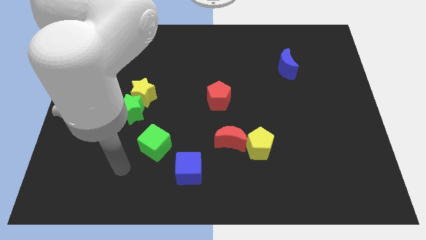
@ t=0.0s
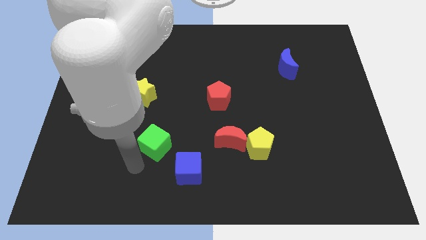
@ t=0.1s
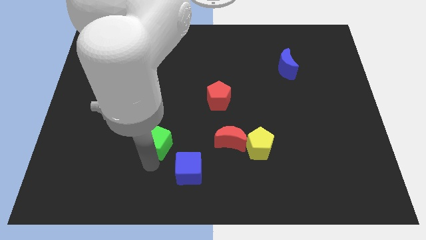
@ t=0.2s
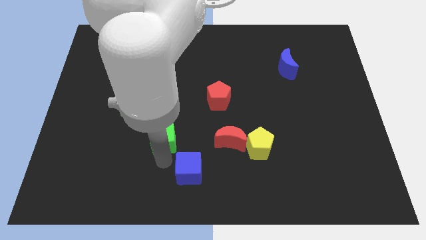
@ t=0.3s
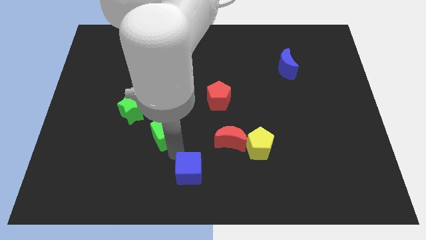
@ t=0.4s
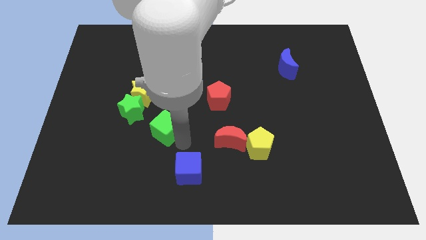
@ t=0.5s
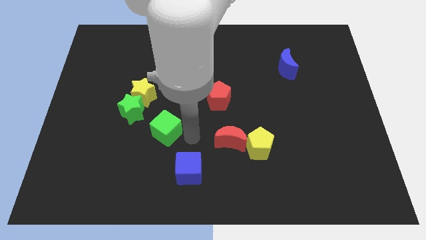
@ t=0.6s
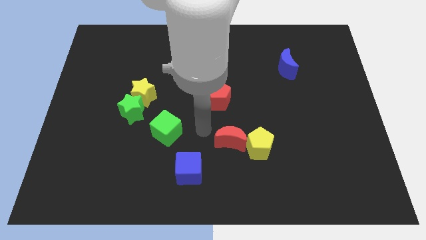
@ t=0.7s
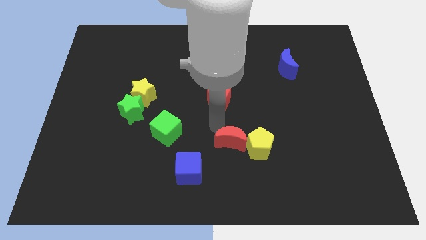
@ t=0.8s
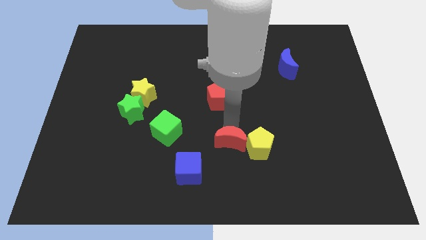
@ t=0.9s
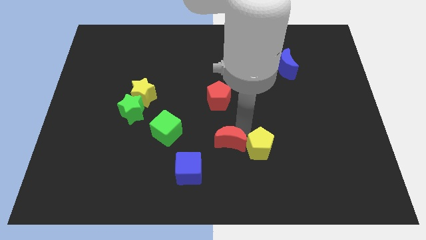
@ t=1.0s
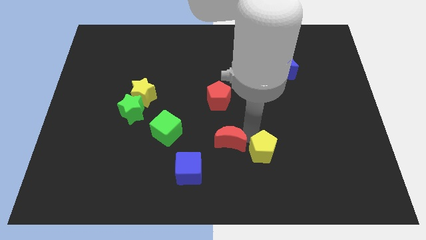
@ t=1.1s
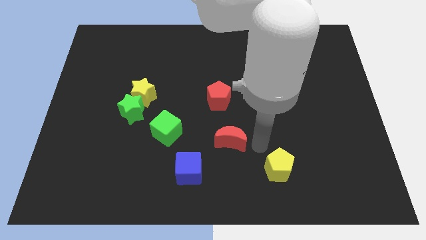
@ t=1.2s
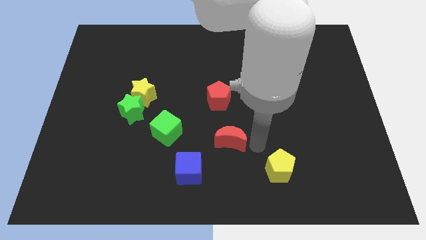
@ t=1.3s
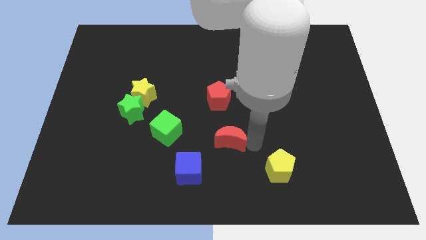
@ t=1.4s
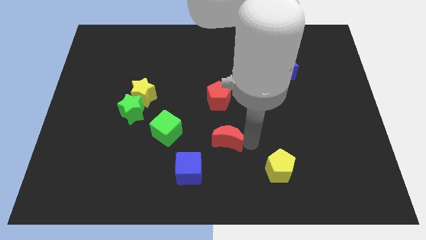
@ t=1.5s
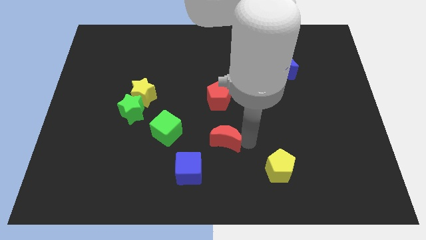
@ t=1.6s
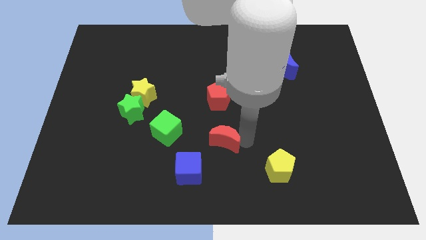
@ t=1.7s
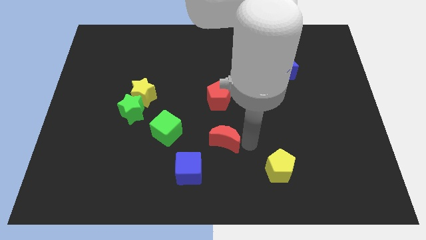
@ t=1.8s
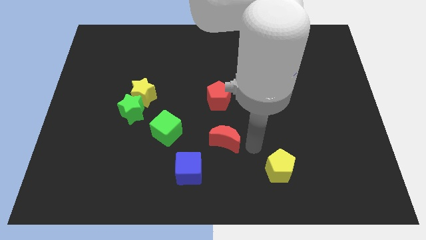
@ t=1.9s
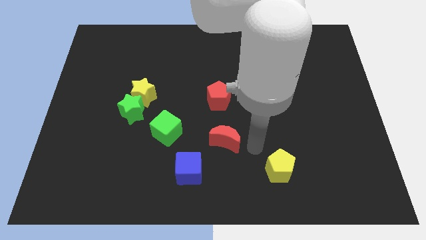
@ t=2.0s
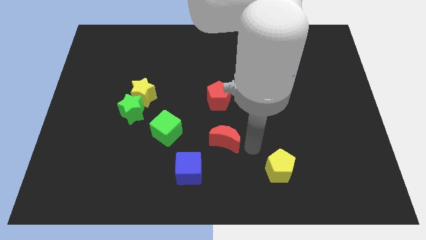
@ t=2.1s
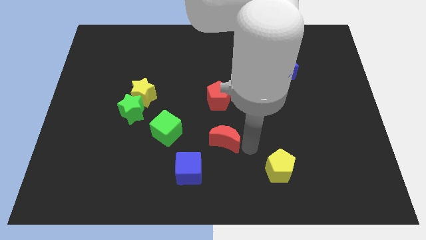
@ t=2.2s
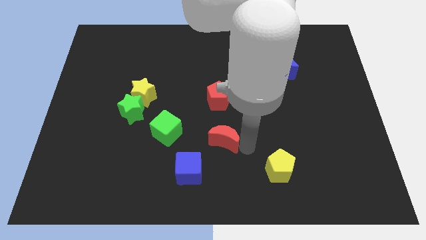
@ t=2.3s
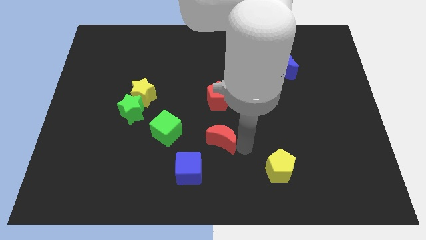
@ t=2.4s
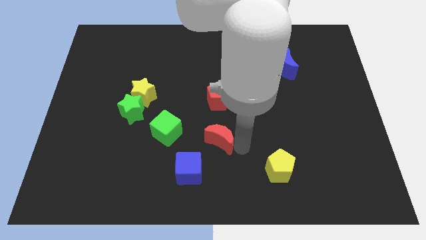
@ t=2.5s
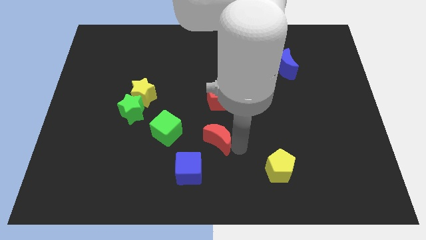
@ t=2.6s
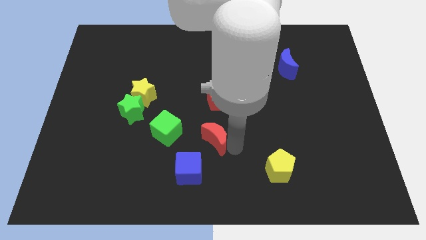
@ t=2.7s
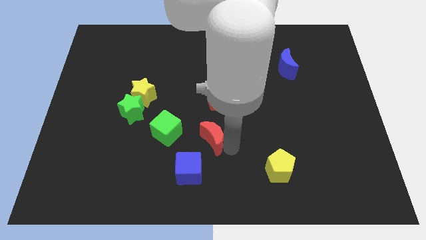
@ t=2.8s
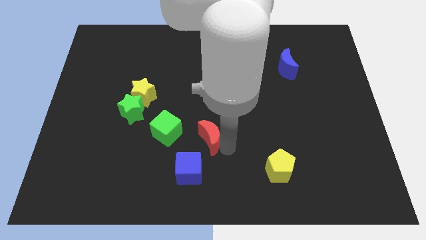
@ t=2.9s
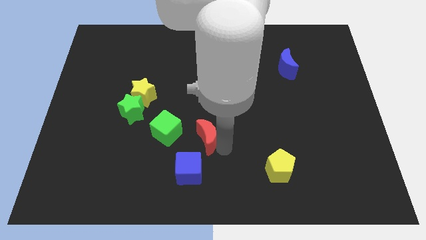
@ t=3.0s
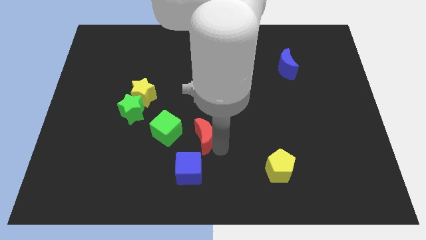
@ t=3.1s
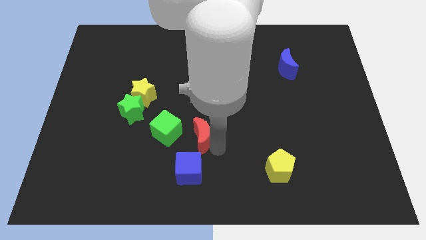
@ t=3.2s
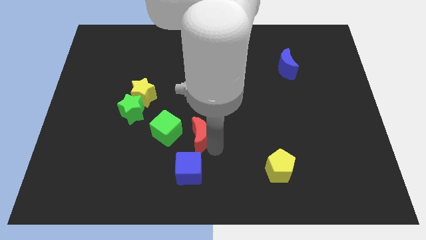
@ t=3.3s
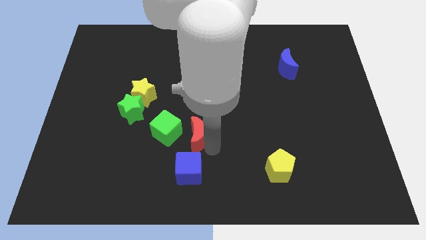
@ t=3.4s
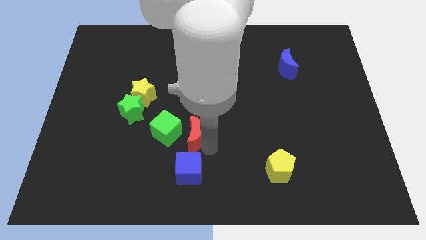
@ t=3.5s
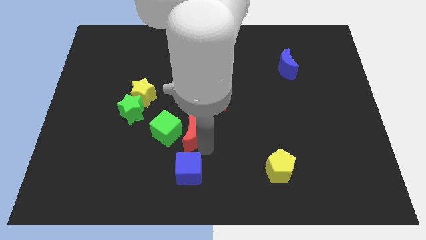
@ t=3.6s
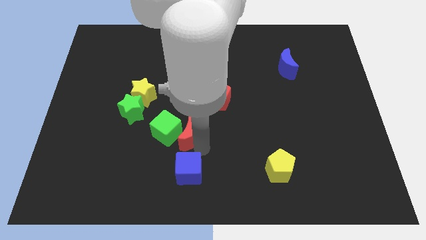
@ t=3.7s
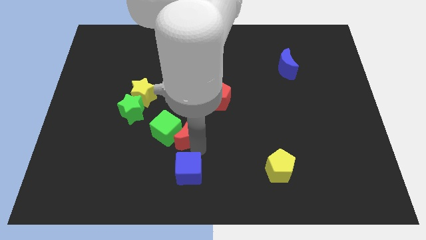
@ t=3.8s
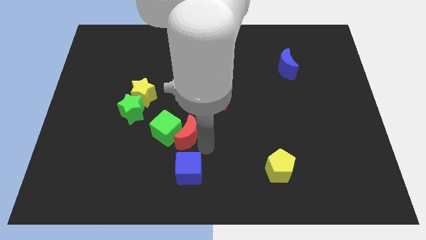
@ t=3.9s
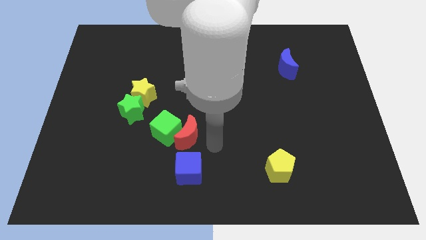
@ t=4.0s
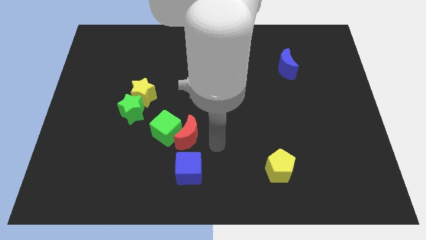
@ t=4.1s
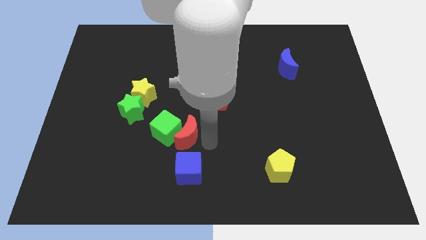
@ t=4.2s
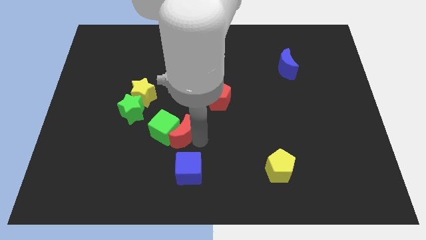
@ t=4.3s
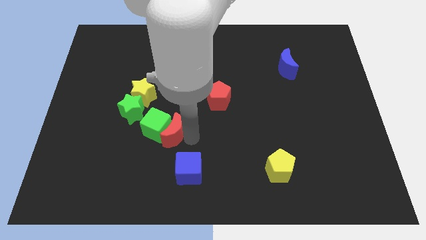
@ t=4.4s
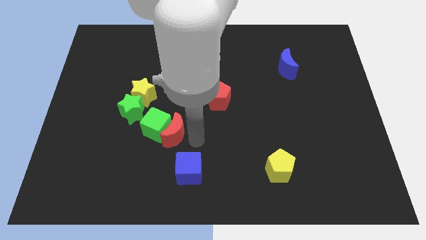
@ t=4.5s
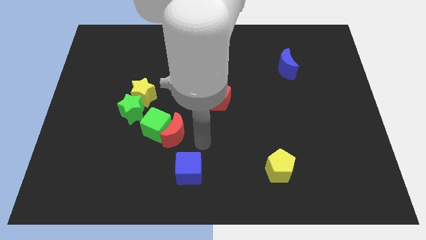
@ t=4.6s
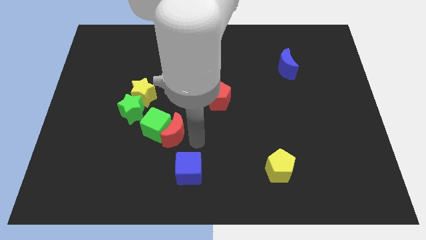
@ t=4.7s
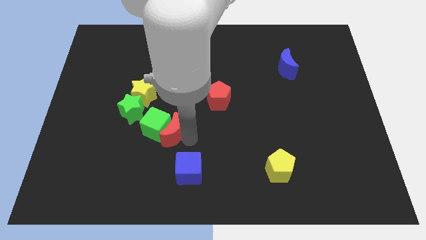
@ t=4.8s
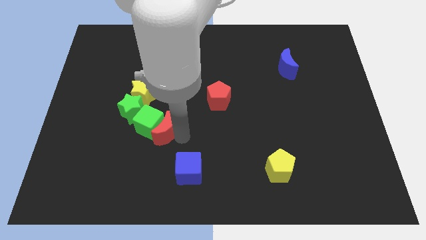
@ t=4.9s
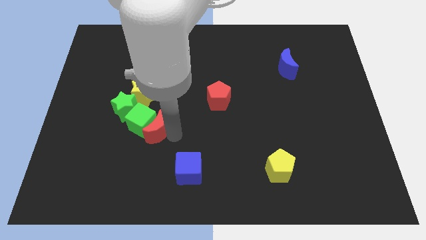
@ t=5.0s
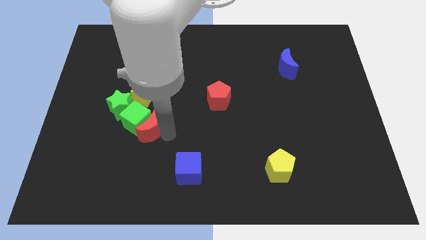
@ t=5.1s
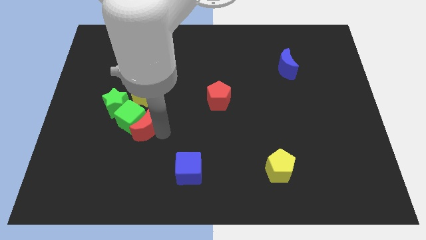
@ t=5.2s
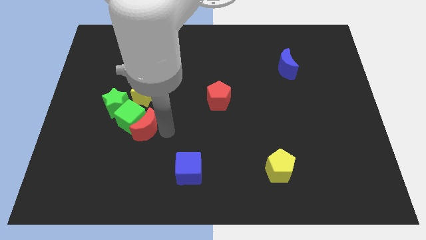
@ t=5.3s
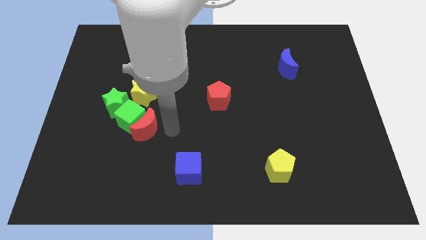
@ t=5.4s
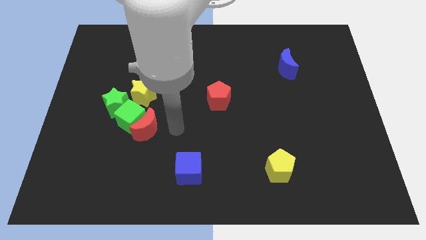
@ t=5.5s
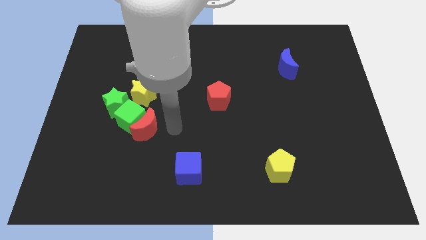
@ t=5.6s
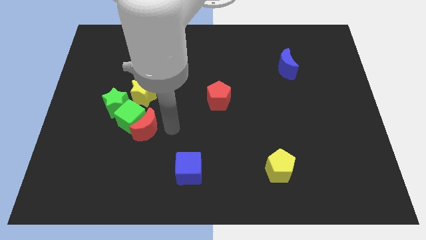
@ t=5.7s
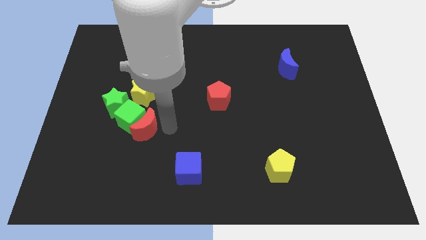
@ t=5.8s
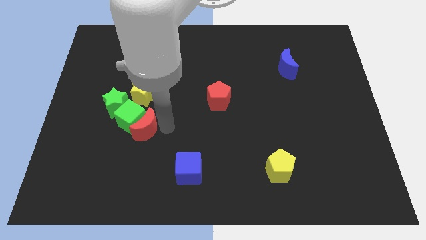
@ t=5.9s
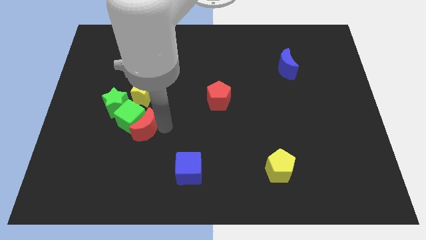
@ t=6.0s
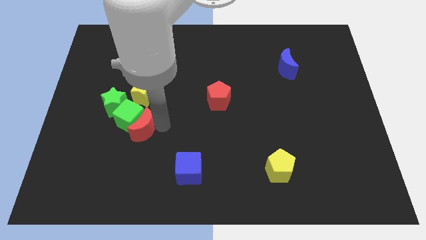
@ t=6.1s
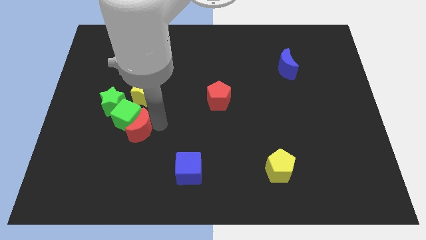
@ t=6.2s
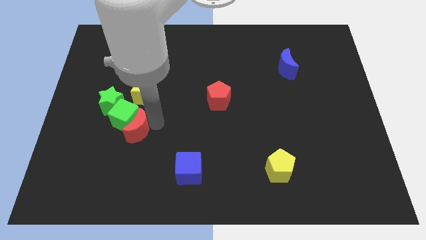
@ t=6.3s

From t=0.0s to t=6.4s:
push the red moon left

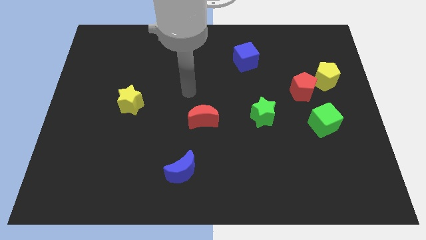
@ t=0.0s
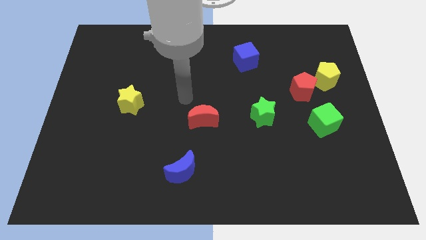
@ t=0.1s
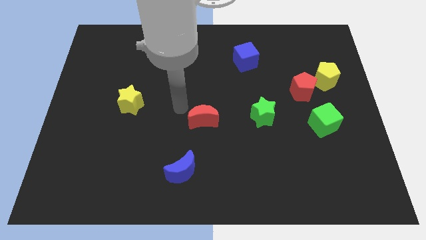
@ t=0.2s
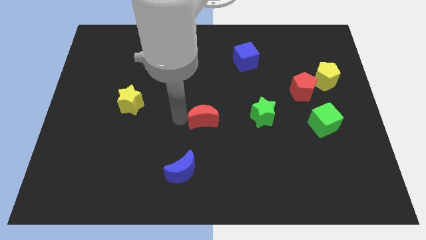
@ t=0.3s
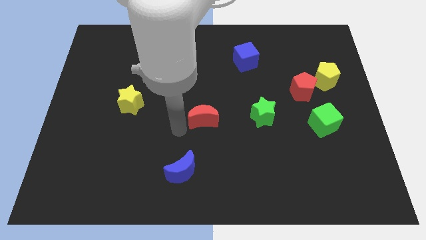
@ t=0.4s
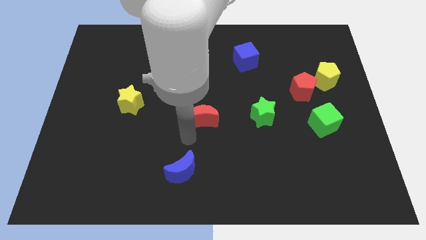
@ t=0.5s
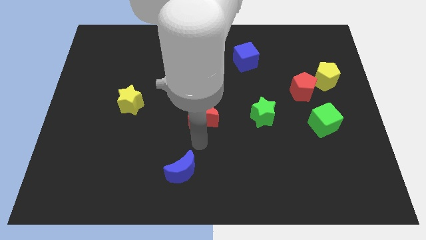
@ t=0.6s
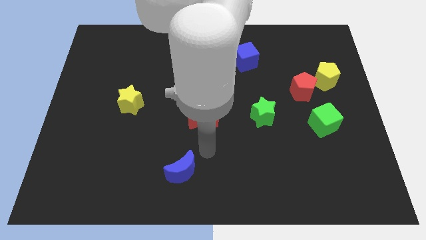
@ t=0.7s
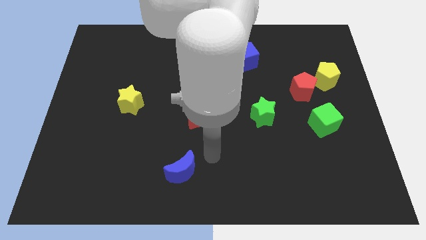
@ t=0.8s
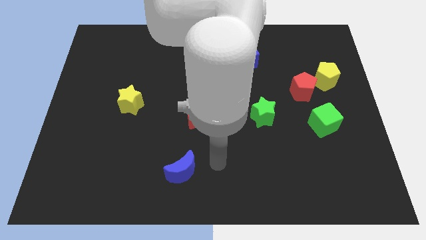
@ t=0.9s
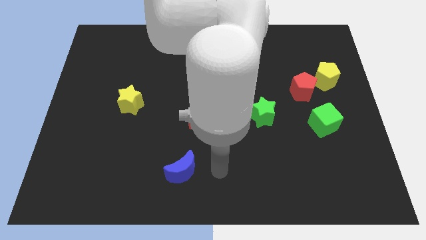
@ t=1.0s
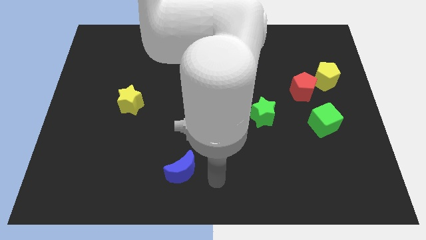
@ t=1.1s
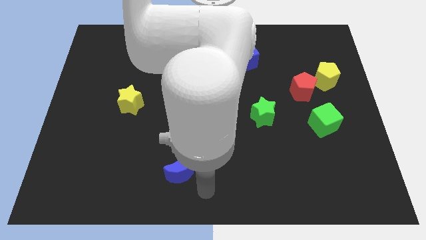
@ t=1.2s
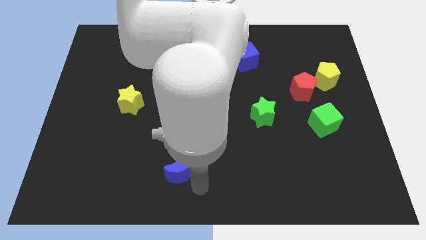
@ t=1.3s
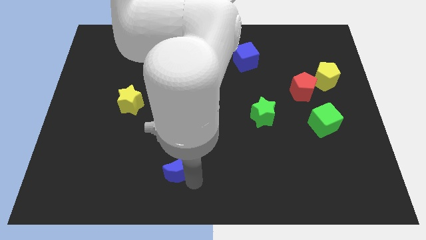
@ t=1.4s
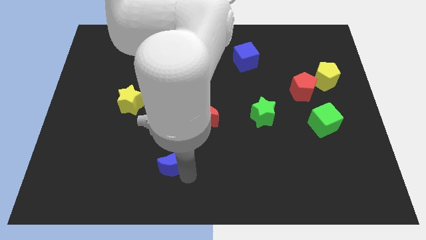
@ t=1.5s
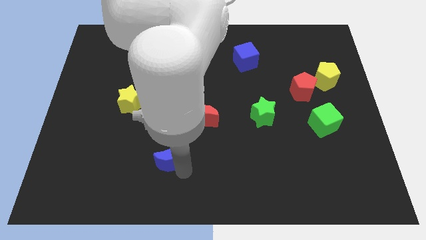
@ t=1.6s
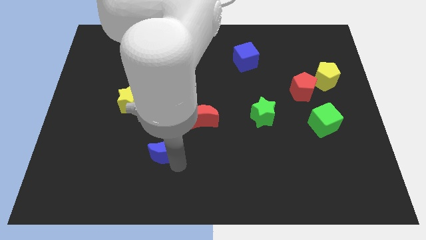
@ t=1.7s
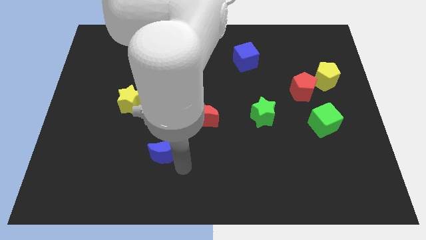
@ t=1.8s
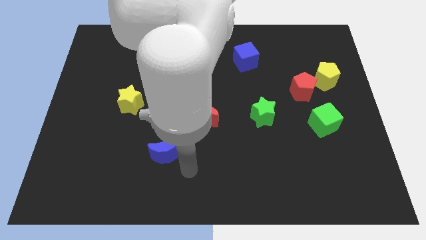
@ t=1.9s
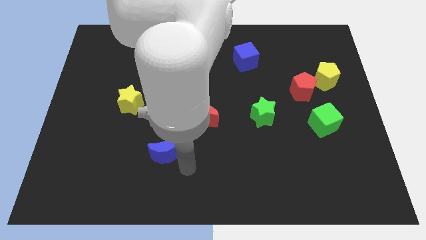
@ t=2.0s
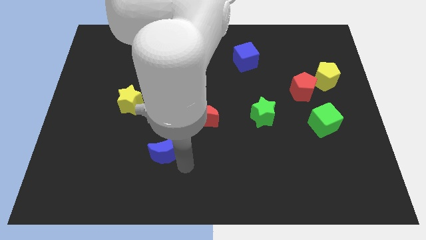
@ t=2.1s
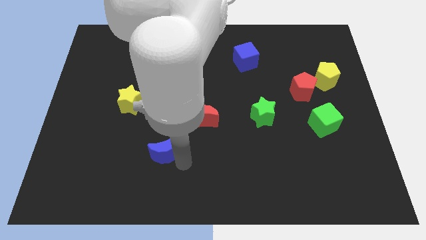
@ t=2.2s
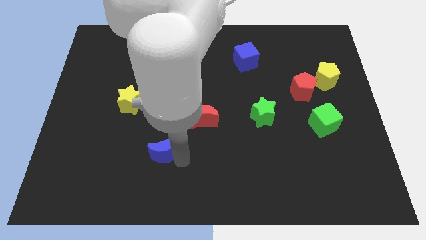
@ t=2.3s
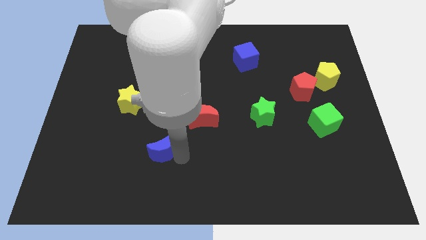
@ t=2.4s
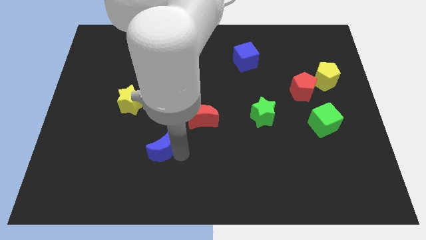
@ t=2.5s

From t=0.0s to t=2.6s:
move the blue moon a little up and left
